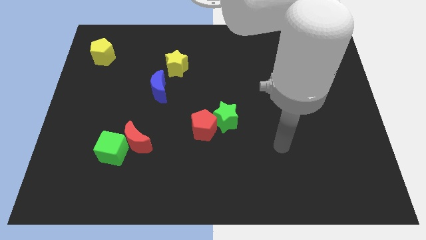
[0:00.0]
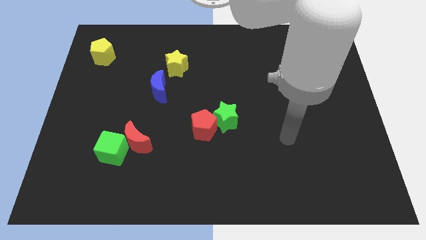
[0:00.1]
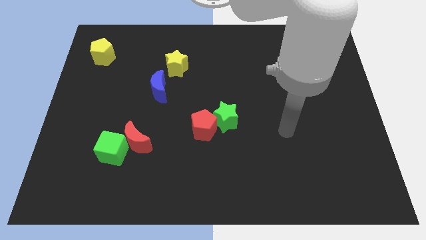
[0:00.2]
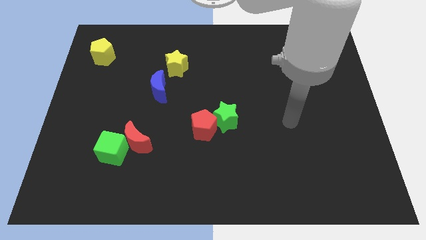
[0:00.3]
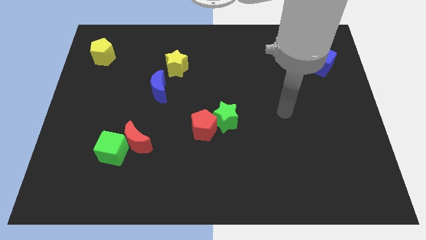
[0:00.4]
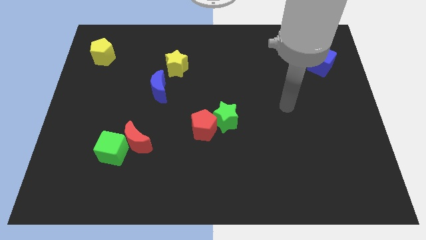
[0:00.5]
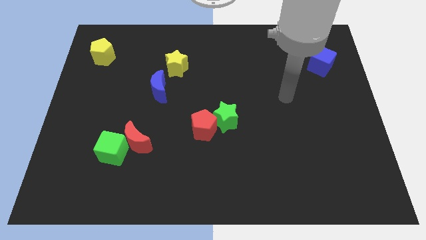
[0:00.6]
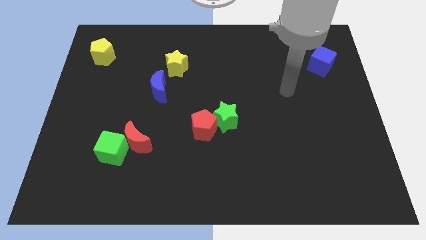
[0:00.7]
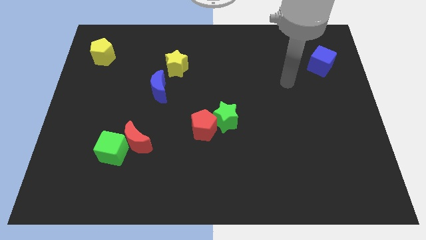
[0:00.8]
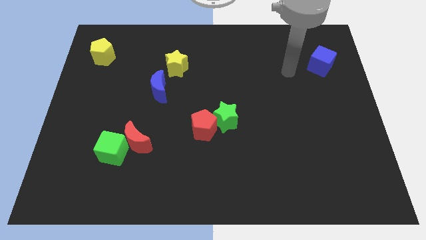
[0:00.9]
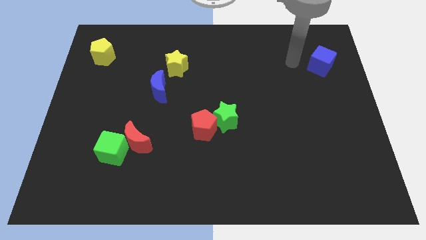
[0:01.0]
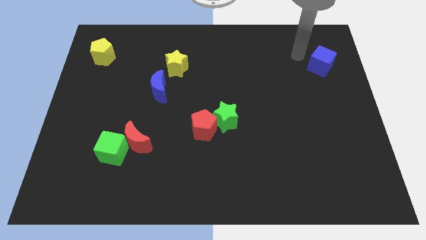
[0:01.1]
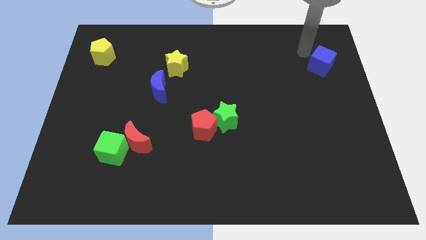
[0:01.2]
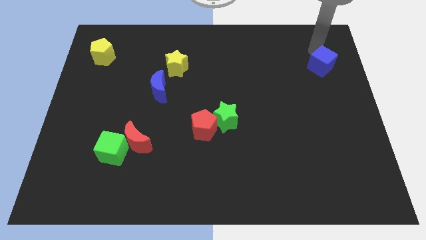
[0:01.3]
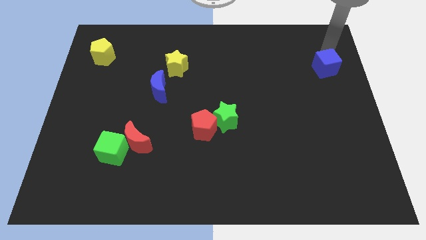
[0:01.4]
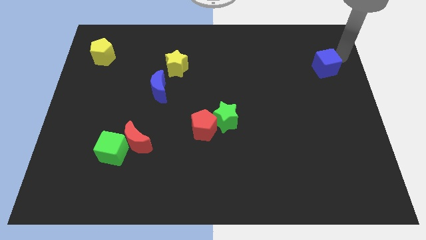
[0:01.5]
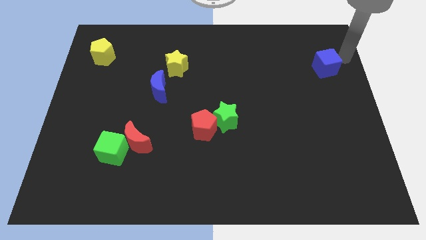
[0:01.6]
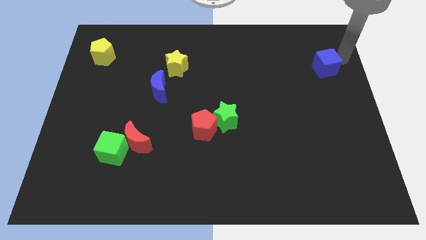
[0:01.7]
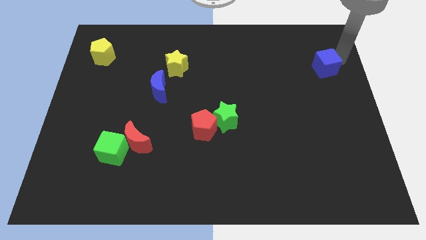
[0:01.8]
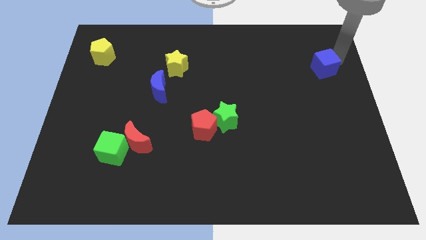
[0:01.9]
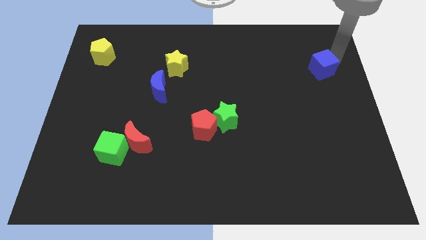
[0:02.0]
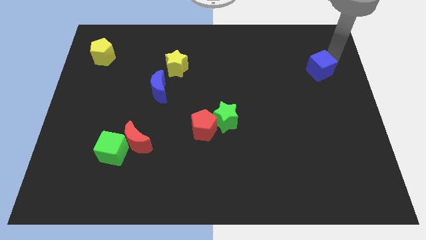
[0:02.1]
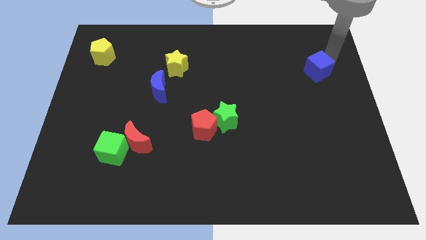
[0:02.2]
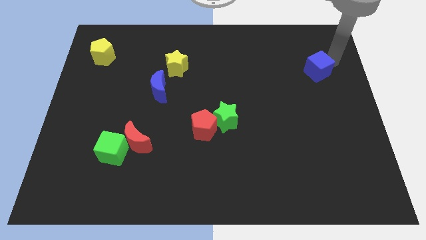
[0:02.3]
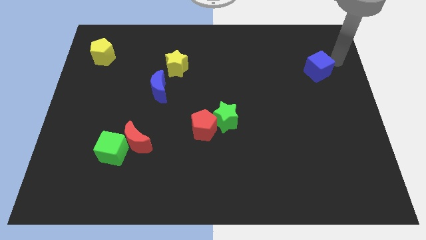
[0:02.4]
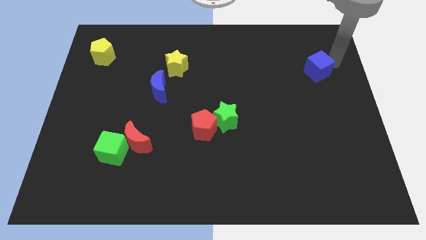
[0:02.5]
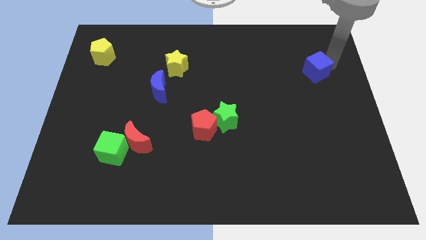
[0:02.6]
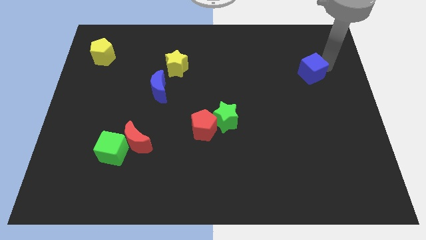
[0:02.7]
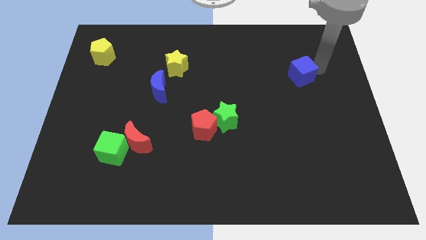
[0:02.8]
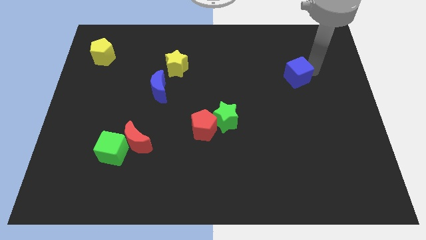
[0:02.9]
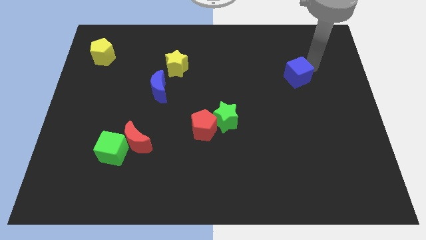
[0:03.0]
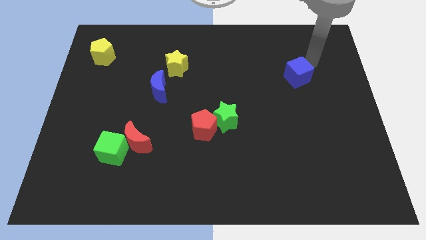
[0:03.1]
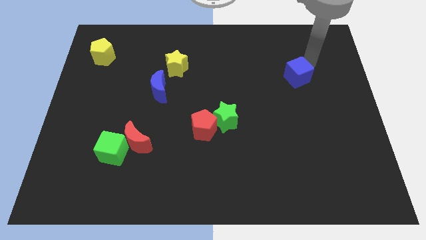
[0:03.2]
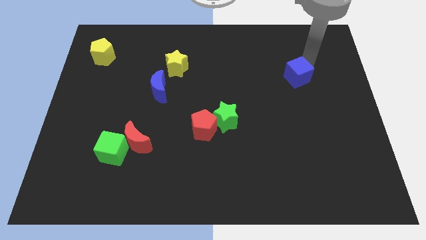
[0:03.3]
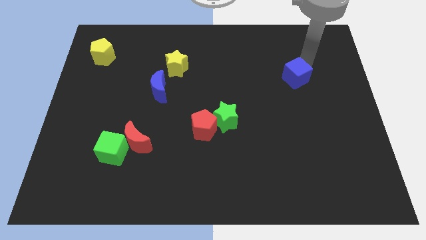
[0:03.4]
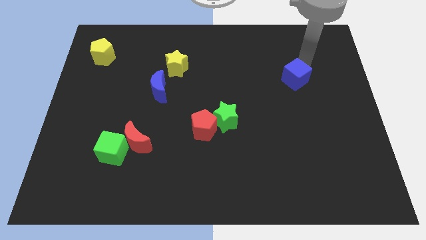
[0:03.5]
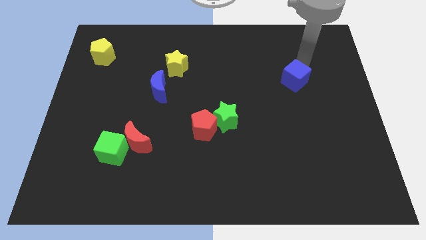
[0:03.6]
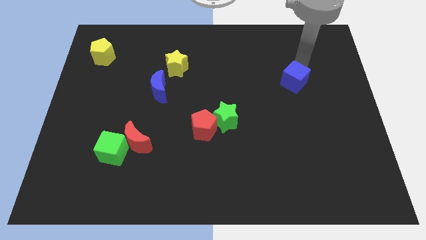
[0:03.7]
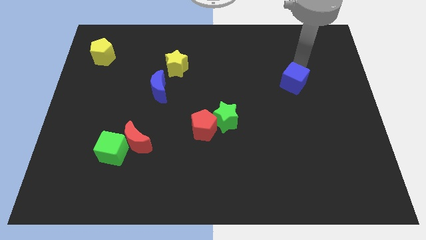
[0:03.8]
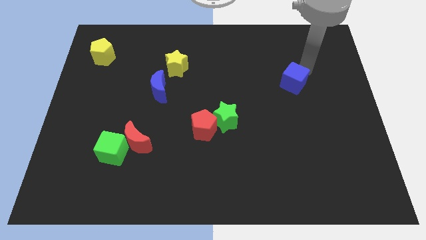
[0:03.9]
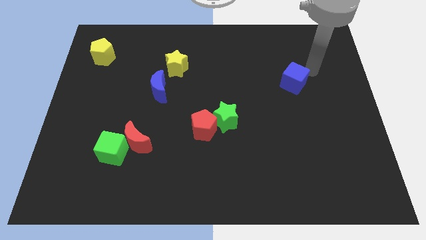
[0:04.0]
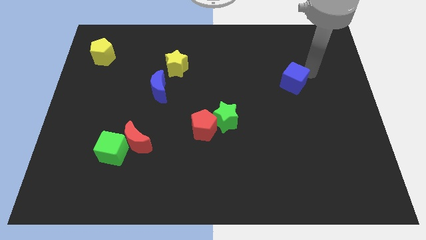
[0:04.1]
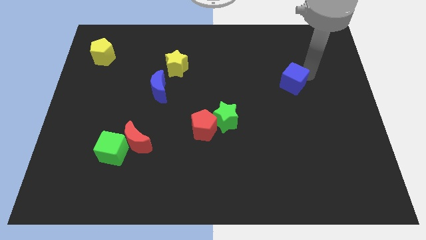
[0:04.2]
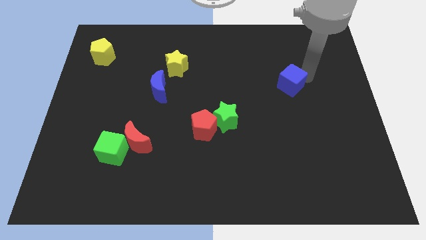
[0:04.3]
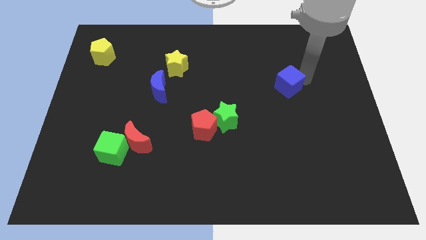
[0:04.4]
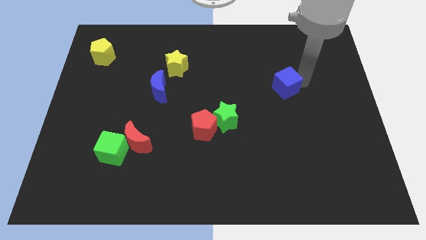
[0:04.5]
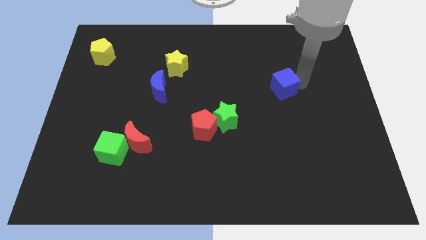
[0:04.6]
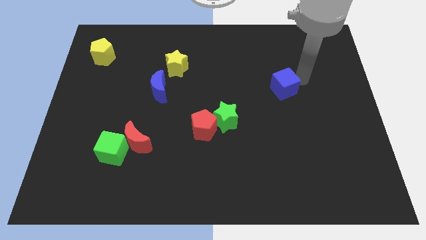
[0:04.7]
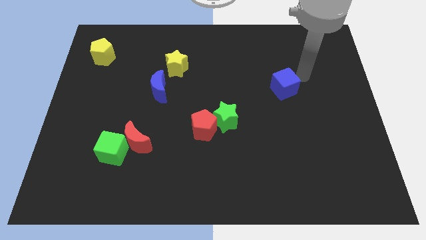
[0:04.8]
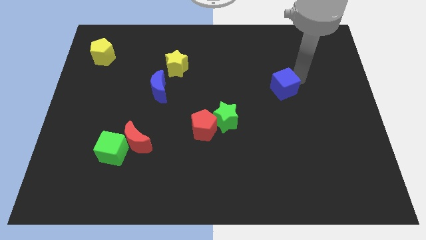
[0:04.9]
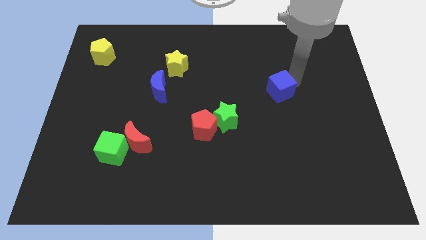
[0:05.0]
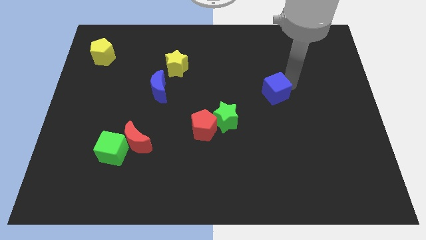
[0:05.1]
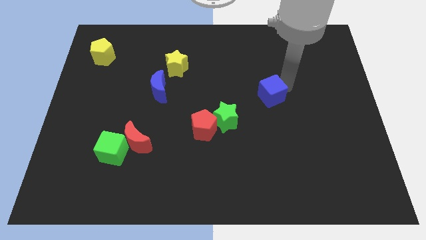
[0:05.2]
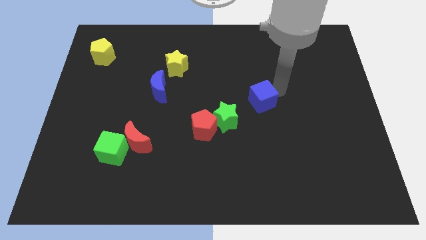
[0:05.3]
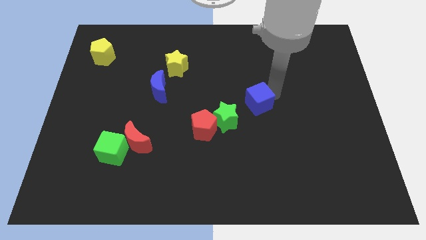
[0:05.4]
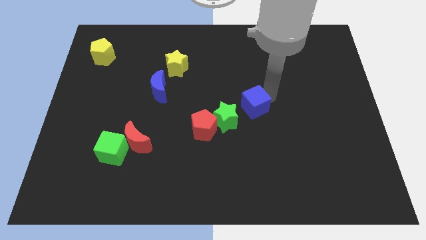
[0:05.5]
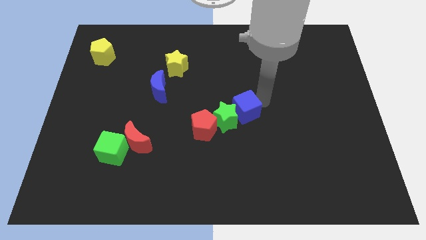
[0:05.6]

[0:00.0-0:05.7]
move the blue cube close to the green star

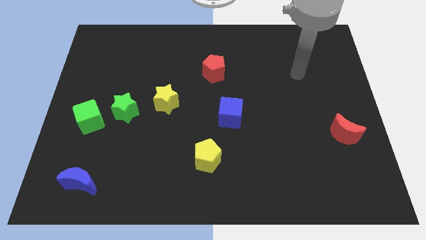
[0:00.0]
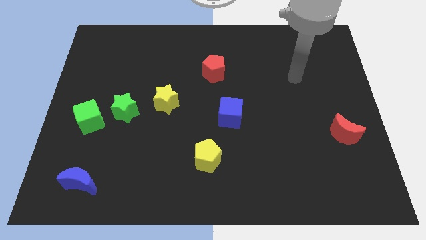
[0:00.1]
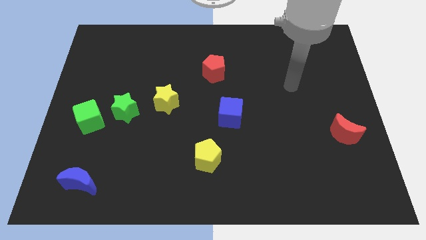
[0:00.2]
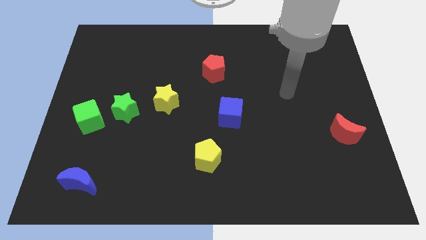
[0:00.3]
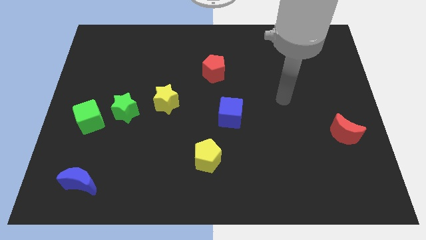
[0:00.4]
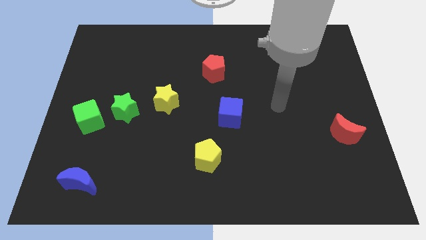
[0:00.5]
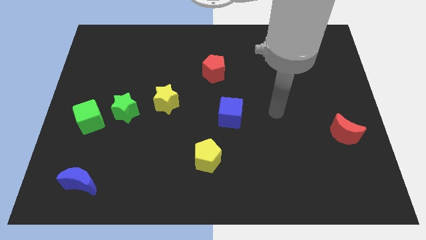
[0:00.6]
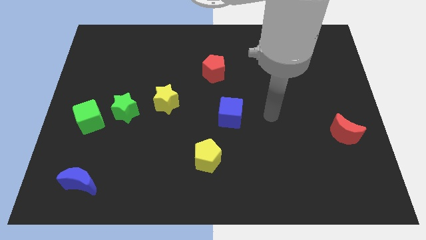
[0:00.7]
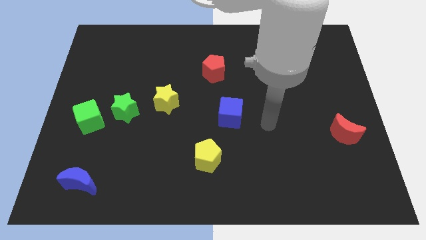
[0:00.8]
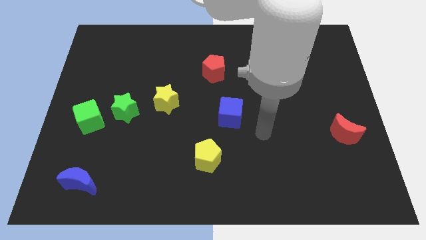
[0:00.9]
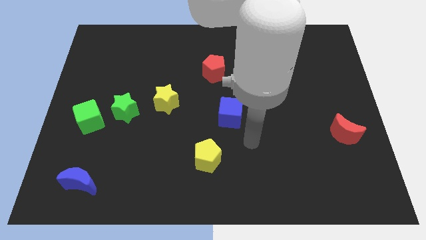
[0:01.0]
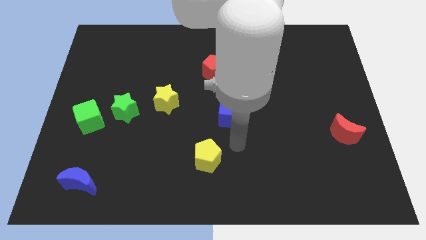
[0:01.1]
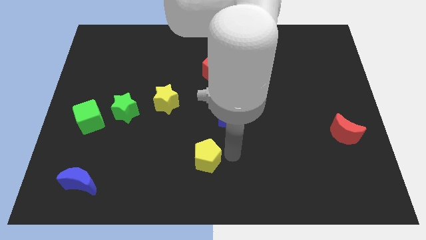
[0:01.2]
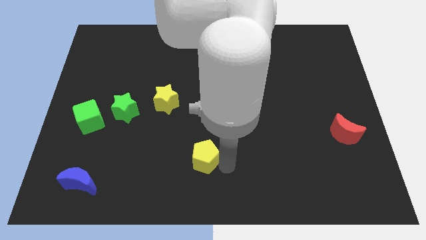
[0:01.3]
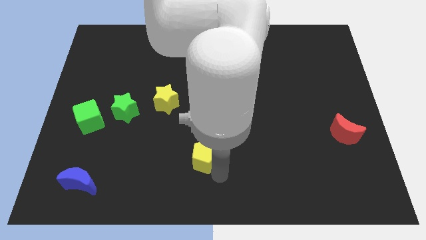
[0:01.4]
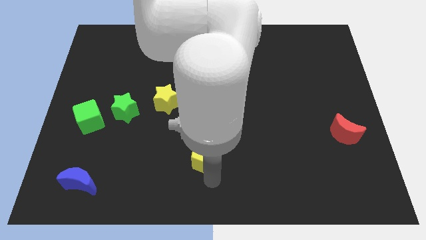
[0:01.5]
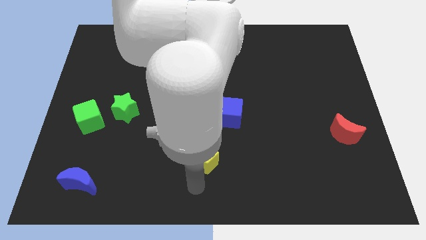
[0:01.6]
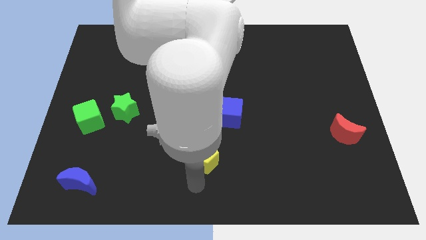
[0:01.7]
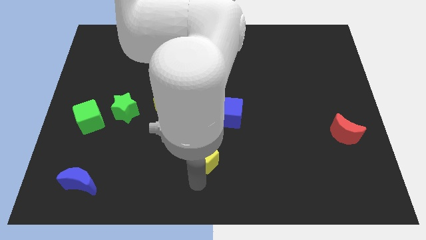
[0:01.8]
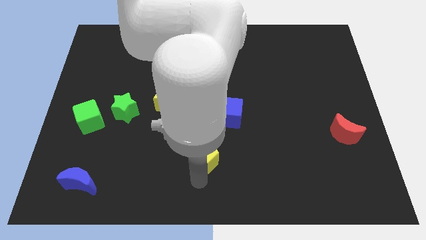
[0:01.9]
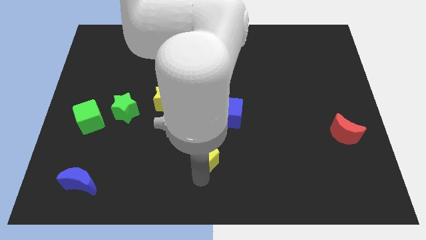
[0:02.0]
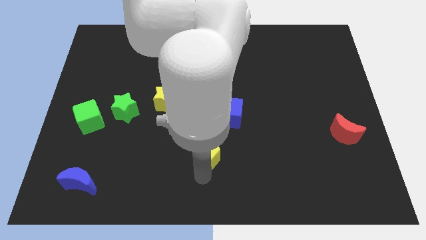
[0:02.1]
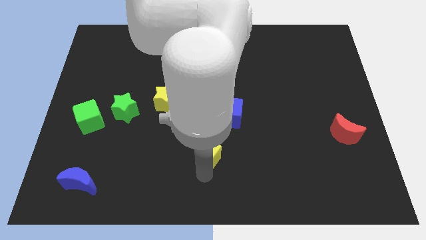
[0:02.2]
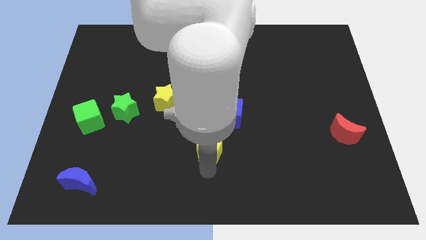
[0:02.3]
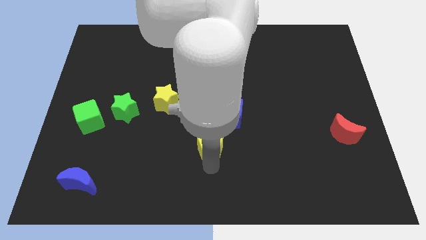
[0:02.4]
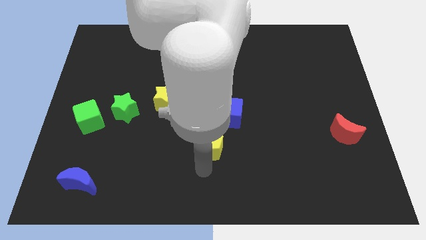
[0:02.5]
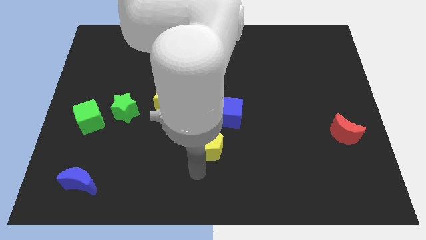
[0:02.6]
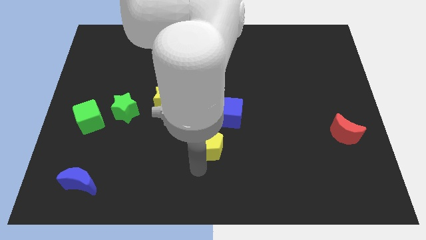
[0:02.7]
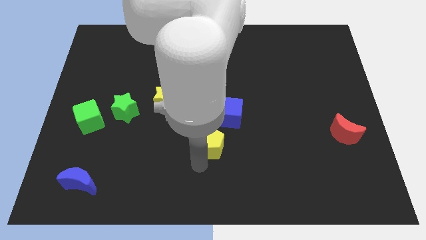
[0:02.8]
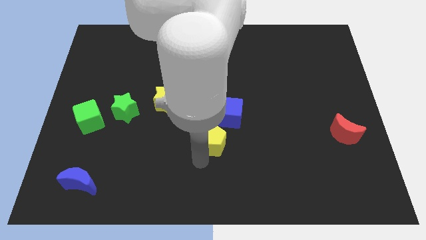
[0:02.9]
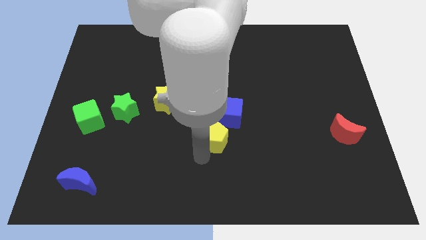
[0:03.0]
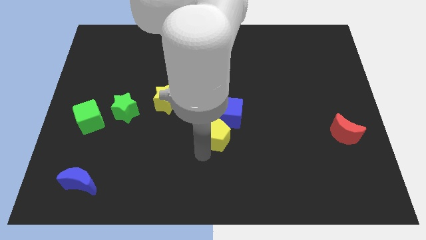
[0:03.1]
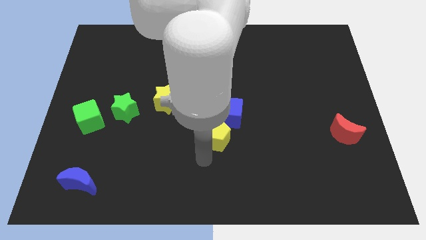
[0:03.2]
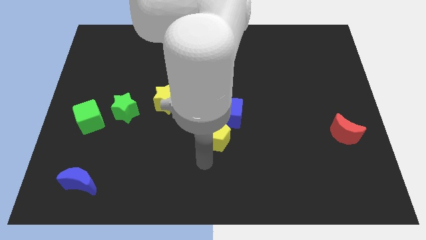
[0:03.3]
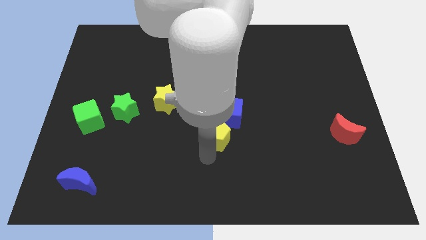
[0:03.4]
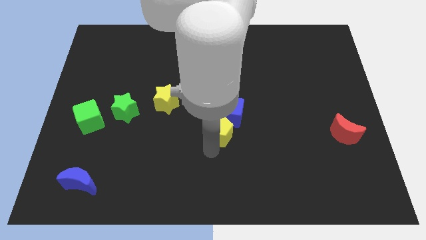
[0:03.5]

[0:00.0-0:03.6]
push the yellow pentagon towards the blue cube
